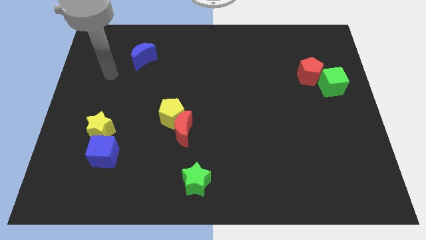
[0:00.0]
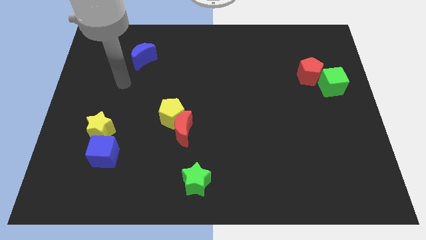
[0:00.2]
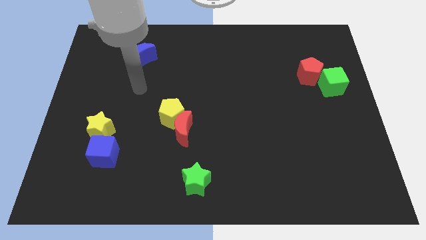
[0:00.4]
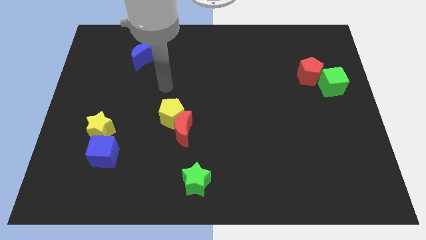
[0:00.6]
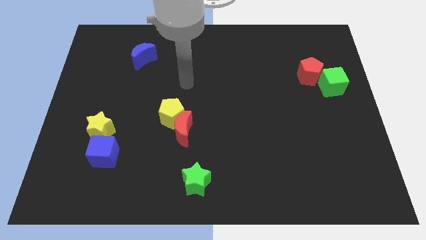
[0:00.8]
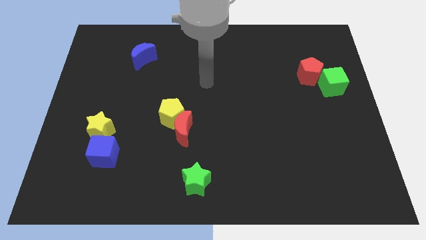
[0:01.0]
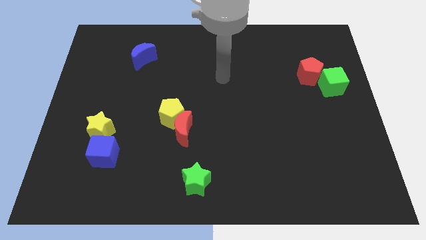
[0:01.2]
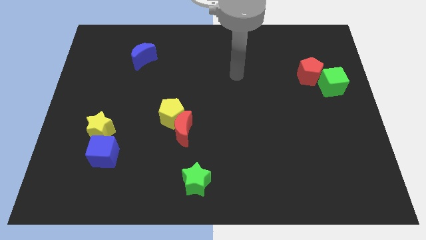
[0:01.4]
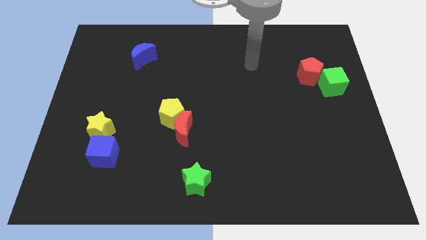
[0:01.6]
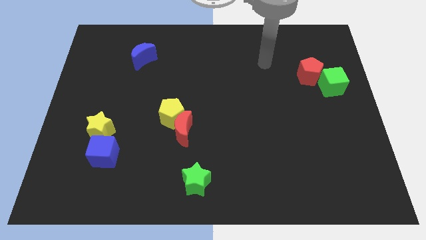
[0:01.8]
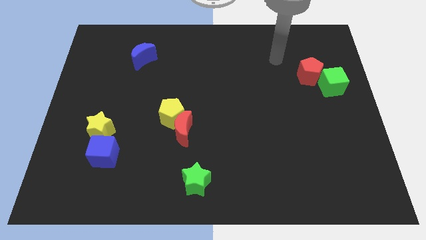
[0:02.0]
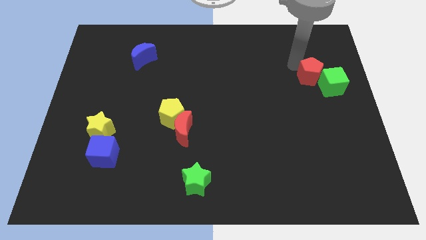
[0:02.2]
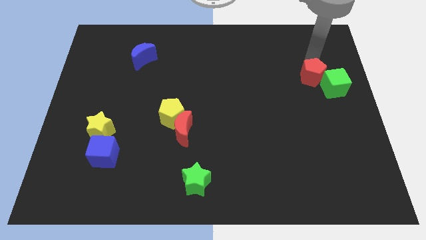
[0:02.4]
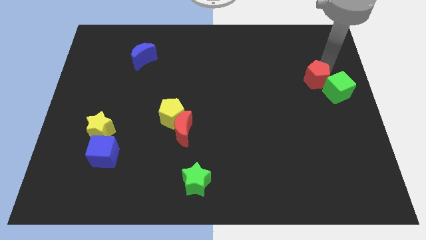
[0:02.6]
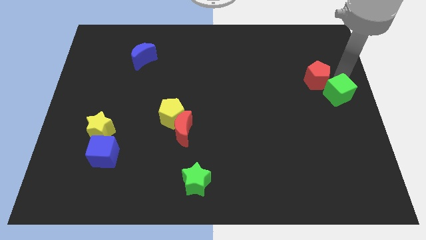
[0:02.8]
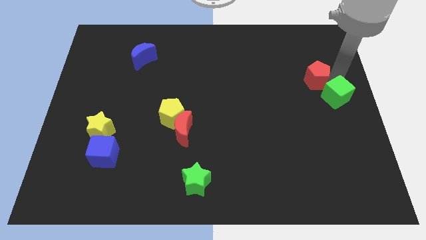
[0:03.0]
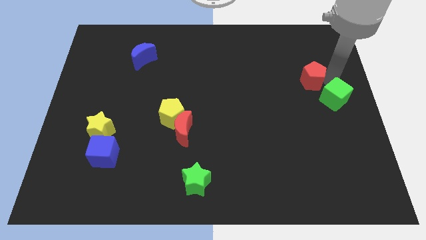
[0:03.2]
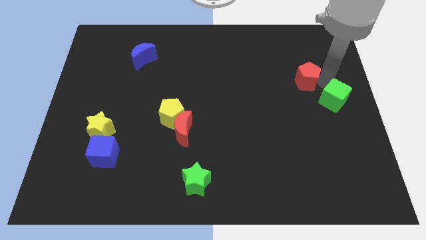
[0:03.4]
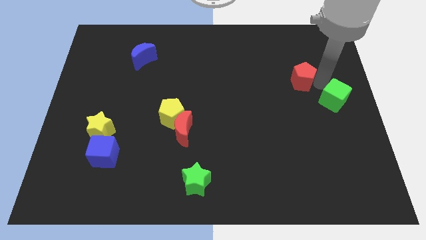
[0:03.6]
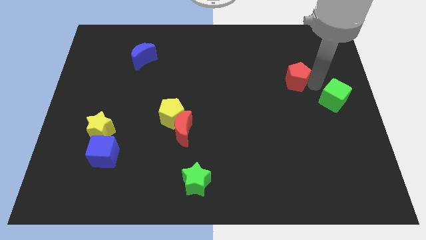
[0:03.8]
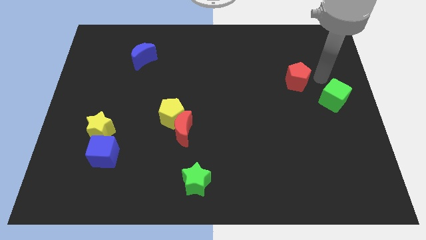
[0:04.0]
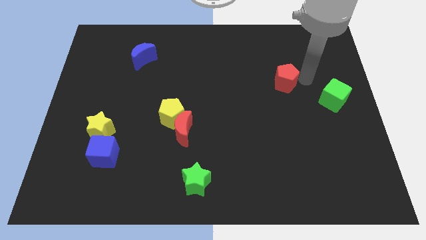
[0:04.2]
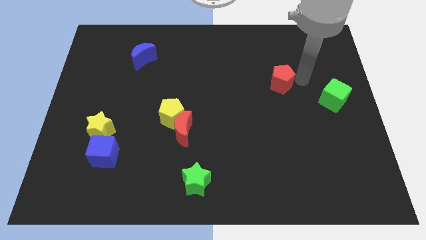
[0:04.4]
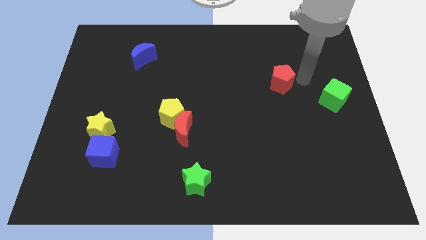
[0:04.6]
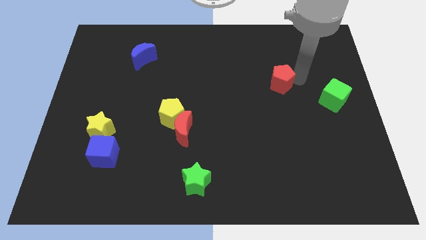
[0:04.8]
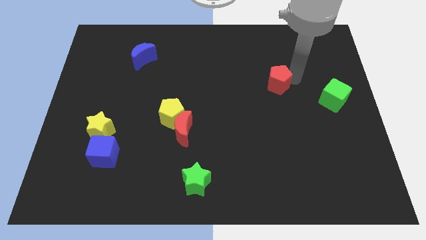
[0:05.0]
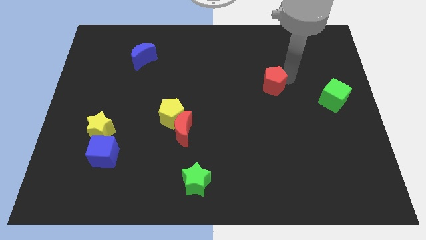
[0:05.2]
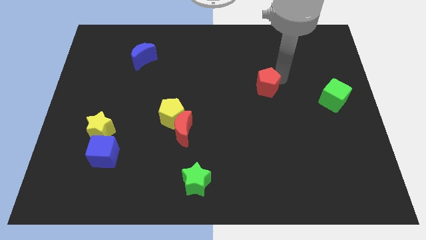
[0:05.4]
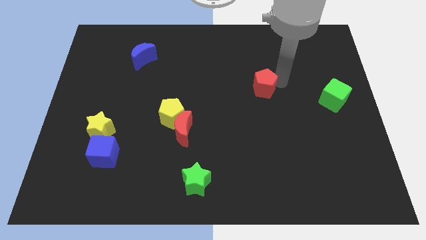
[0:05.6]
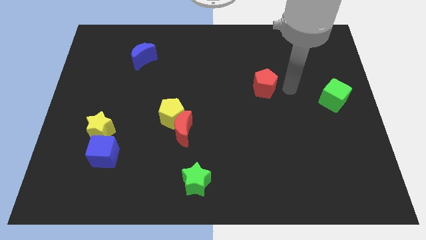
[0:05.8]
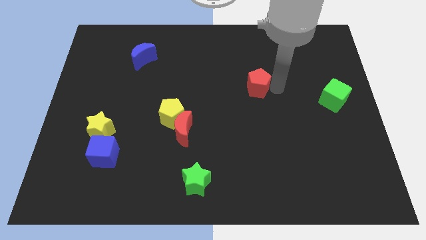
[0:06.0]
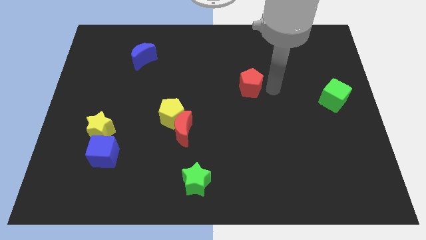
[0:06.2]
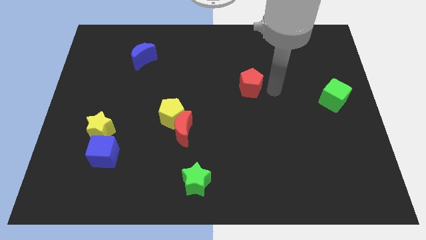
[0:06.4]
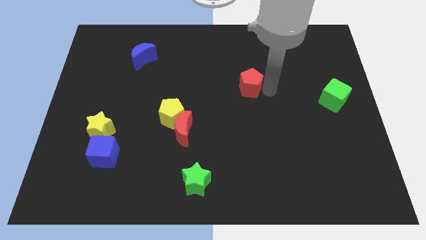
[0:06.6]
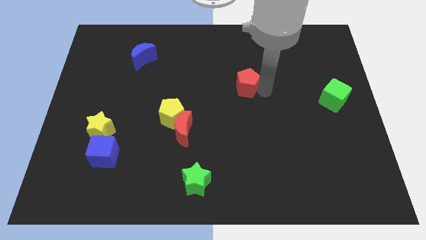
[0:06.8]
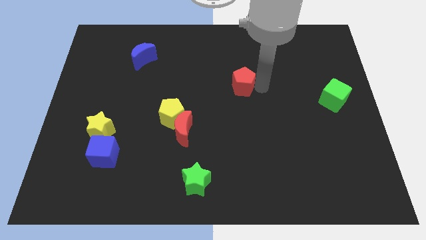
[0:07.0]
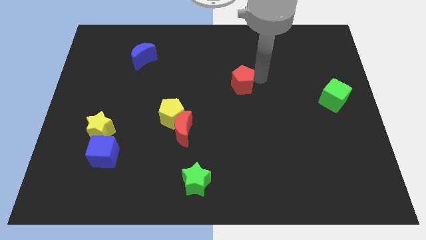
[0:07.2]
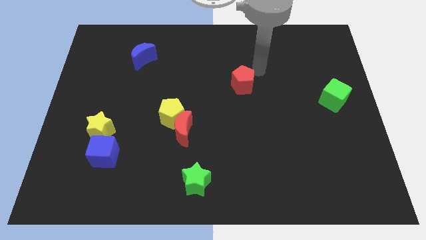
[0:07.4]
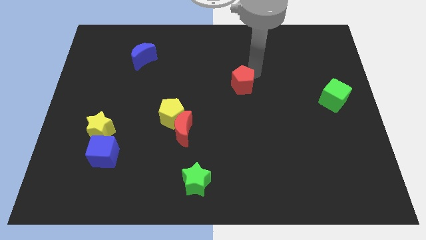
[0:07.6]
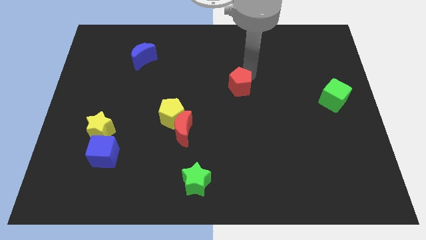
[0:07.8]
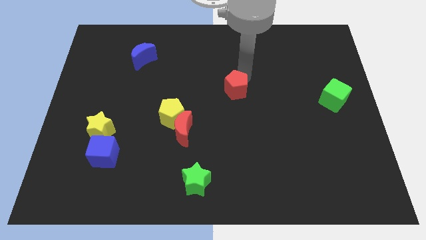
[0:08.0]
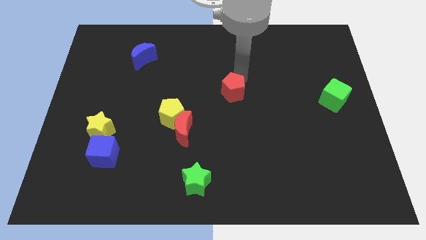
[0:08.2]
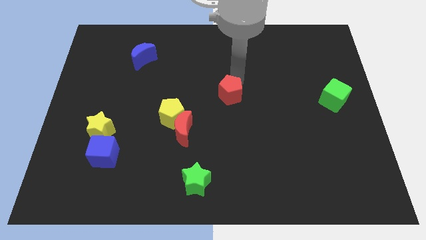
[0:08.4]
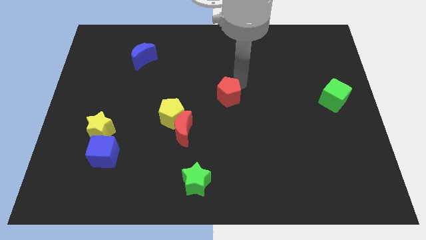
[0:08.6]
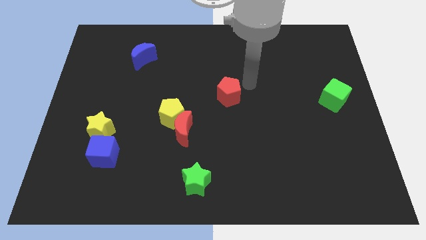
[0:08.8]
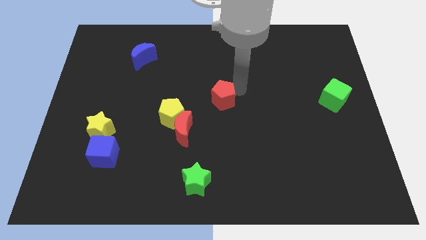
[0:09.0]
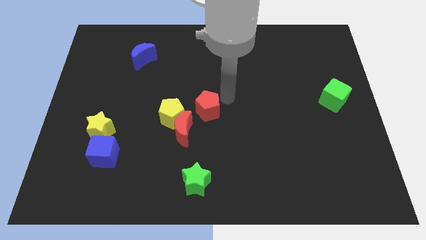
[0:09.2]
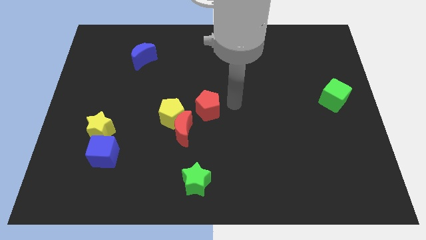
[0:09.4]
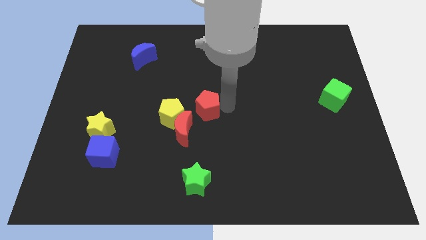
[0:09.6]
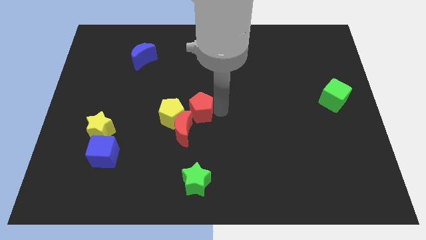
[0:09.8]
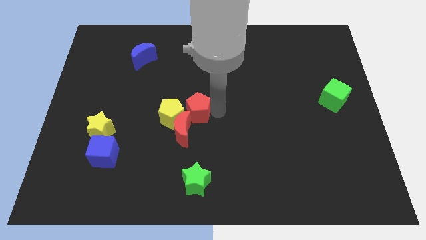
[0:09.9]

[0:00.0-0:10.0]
push the red pentagon towards the yellow pentagon

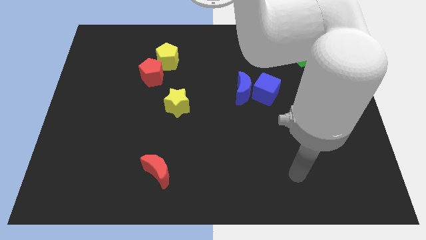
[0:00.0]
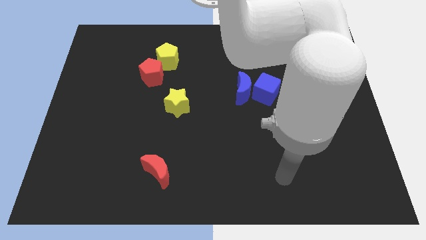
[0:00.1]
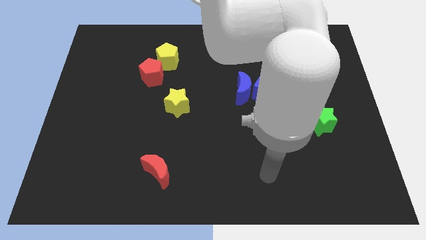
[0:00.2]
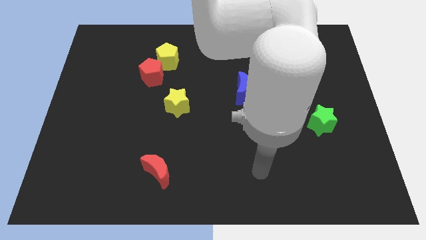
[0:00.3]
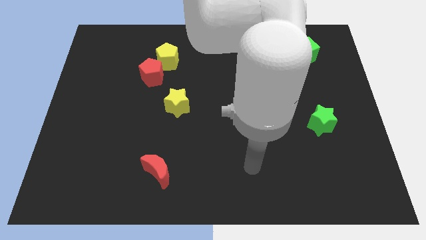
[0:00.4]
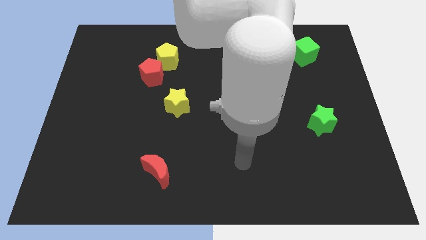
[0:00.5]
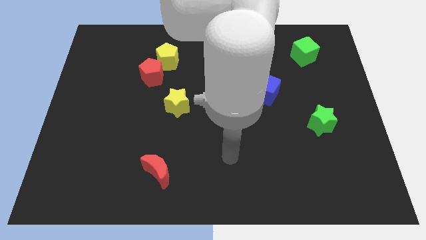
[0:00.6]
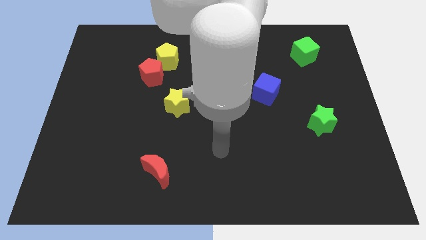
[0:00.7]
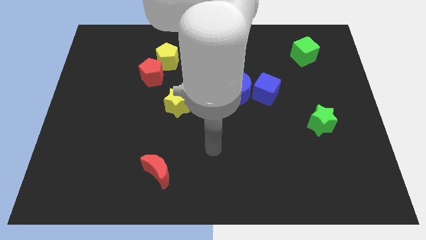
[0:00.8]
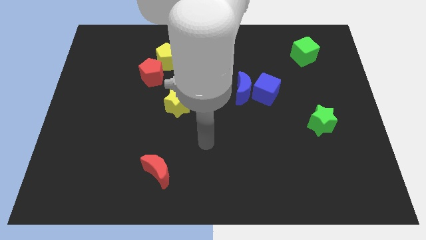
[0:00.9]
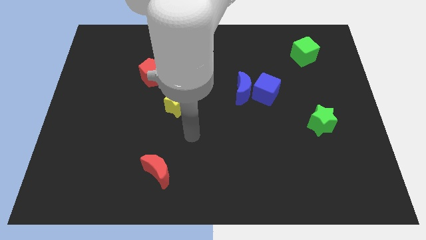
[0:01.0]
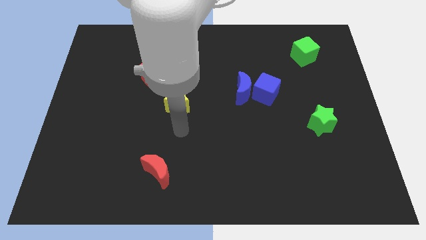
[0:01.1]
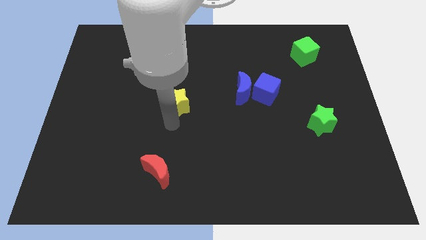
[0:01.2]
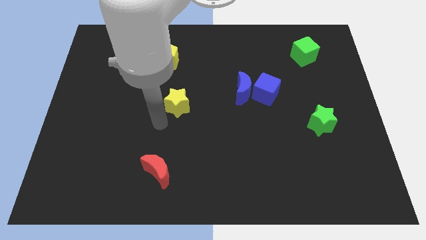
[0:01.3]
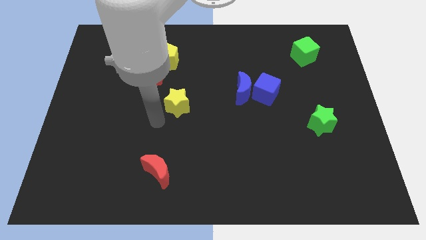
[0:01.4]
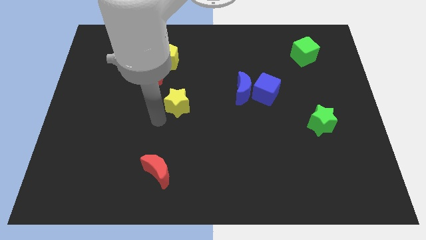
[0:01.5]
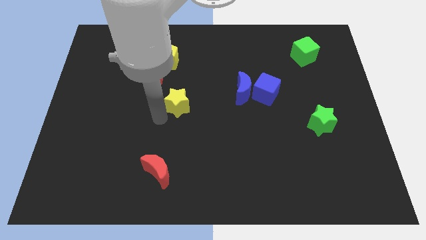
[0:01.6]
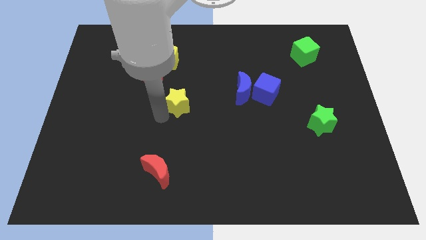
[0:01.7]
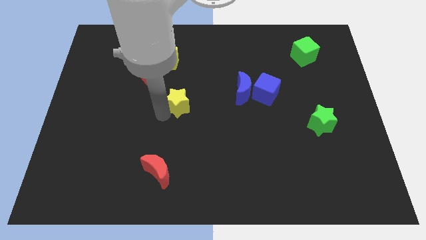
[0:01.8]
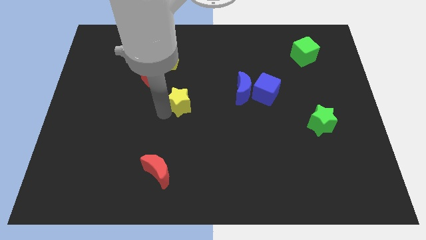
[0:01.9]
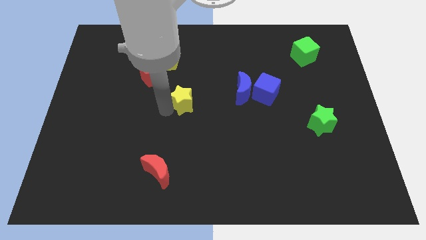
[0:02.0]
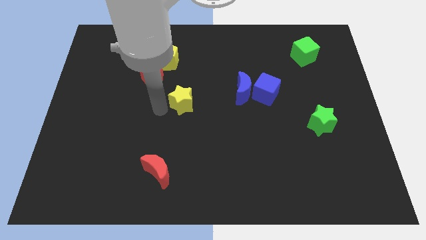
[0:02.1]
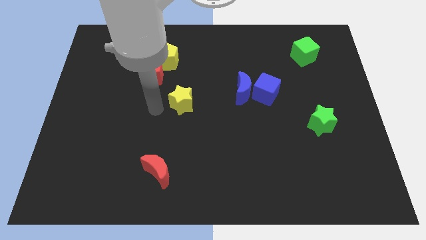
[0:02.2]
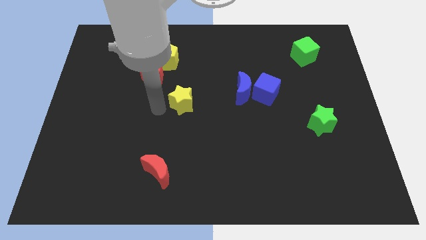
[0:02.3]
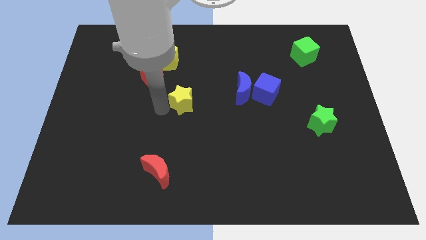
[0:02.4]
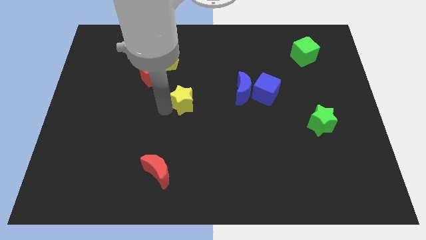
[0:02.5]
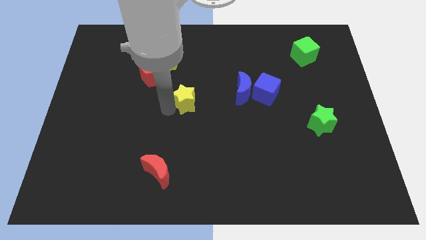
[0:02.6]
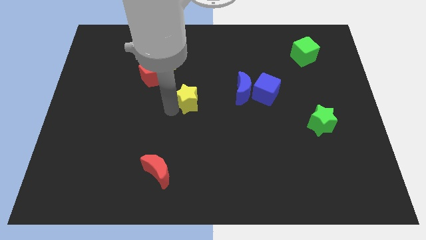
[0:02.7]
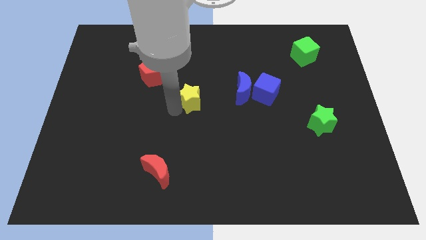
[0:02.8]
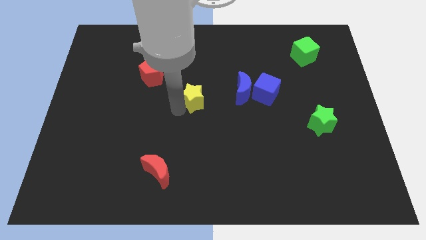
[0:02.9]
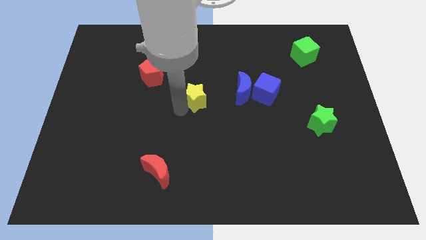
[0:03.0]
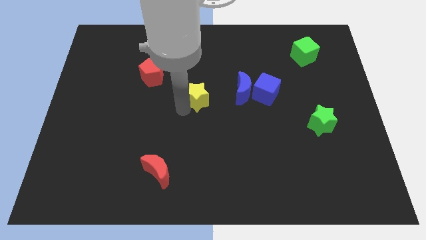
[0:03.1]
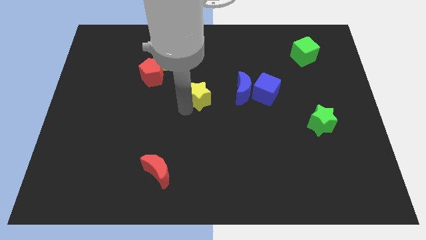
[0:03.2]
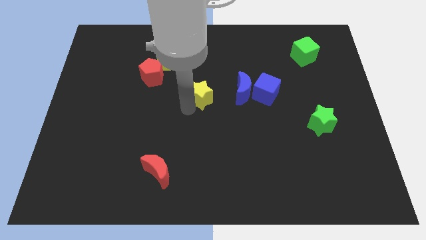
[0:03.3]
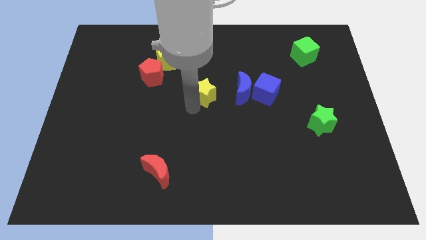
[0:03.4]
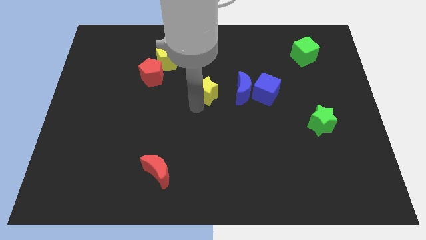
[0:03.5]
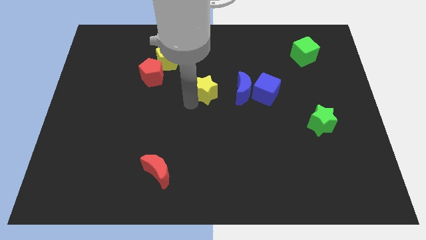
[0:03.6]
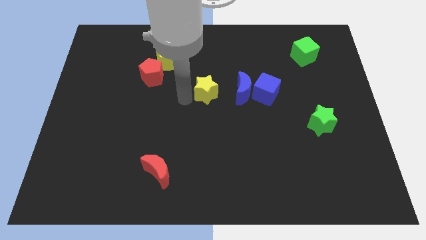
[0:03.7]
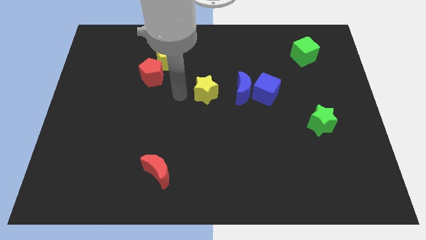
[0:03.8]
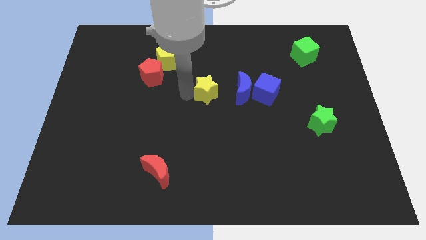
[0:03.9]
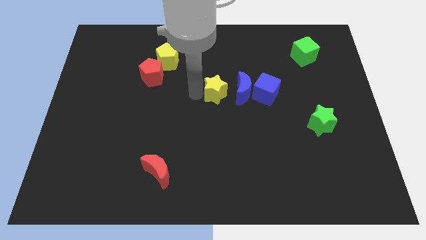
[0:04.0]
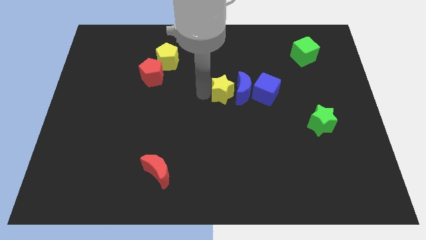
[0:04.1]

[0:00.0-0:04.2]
push the yellow star close to the blue moon
